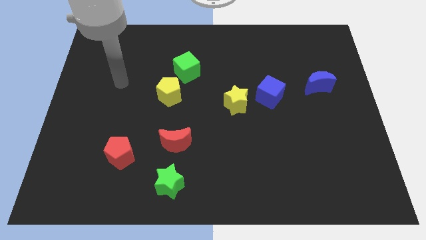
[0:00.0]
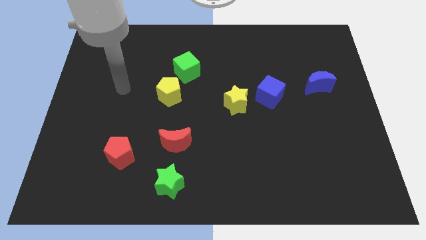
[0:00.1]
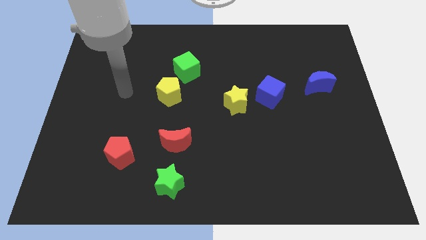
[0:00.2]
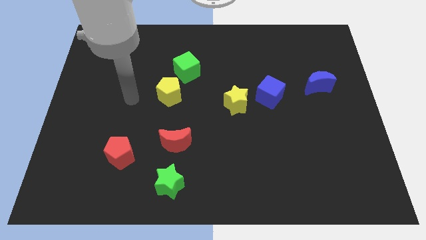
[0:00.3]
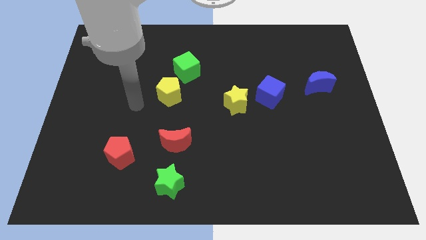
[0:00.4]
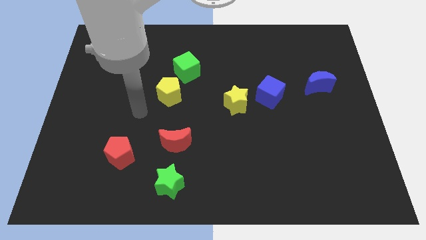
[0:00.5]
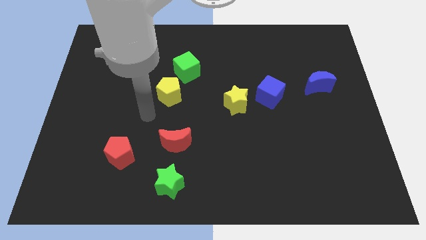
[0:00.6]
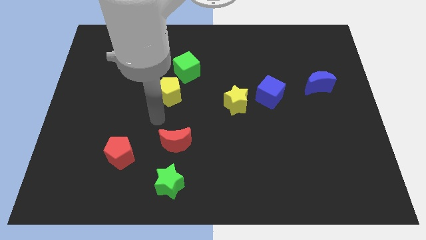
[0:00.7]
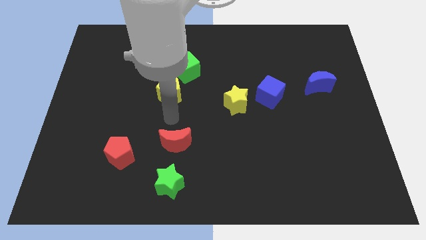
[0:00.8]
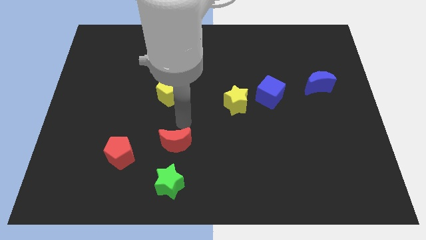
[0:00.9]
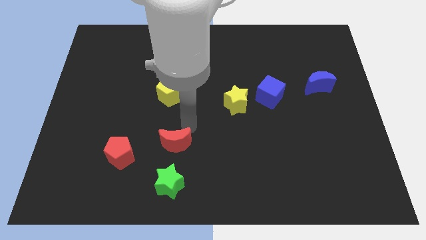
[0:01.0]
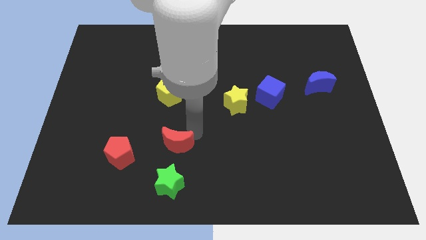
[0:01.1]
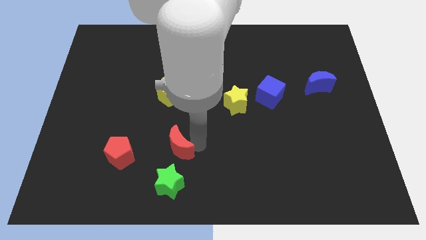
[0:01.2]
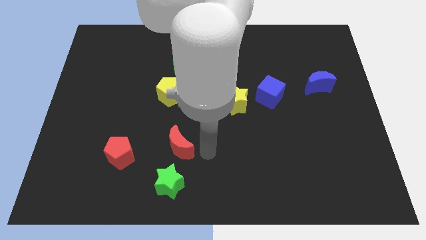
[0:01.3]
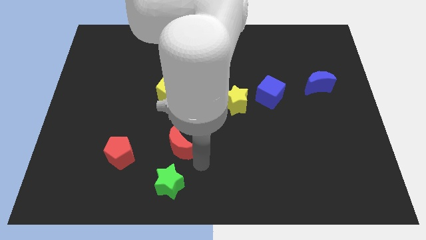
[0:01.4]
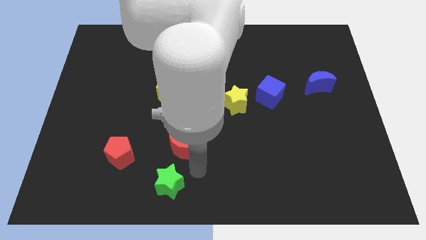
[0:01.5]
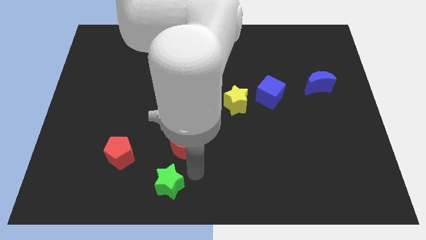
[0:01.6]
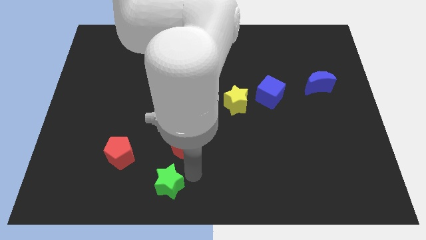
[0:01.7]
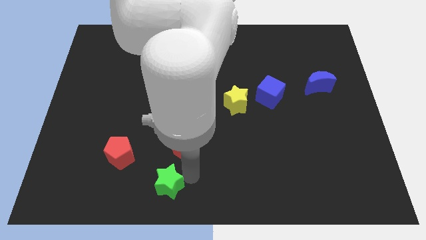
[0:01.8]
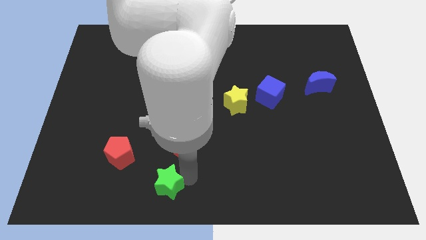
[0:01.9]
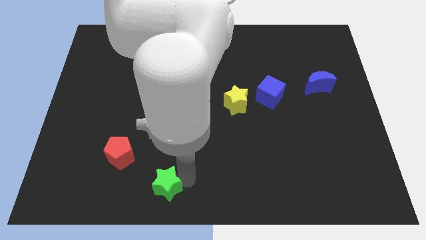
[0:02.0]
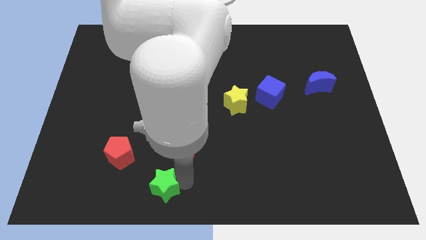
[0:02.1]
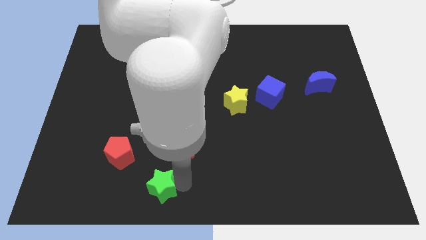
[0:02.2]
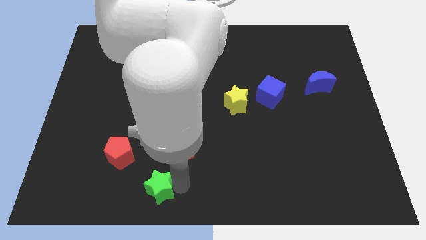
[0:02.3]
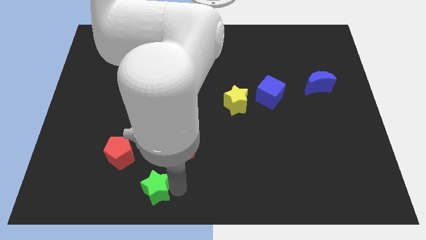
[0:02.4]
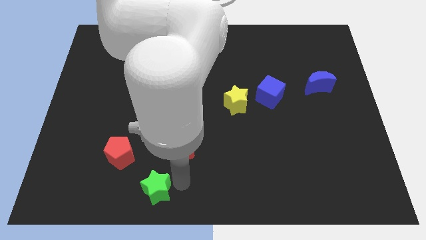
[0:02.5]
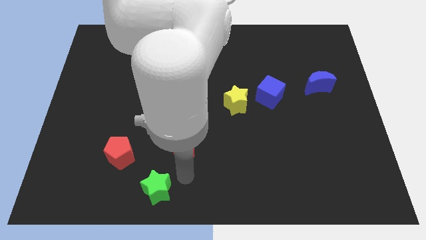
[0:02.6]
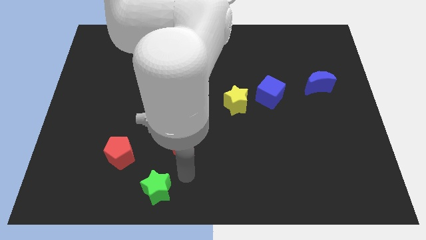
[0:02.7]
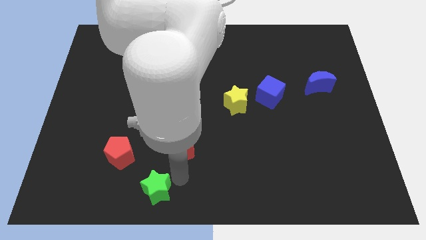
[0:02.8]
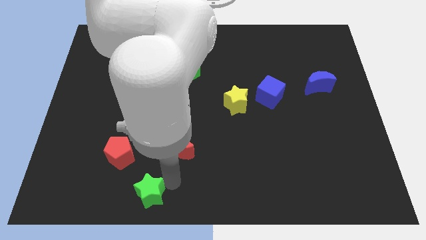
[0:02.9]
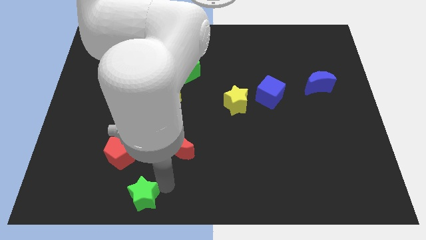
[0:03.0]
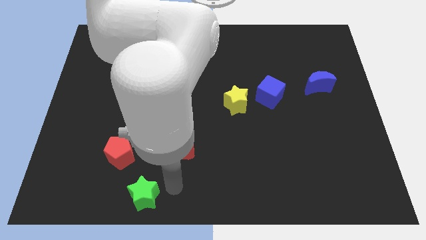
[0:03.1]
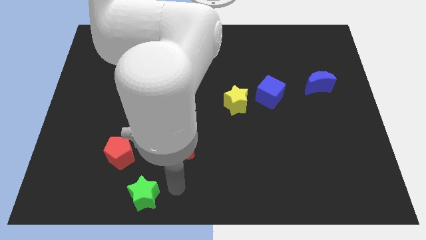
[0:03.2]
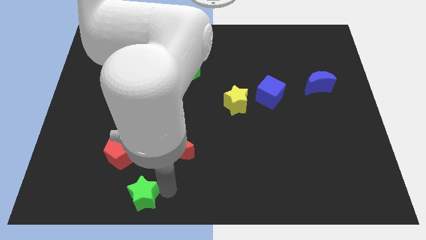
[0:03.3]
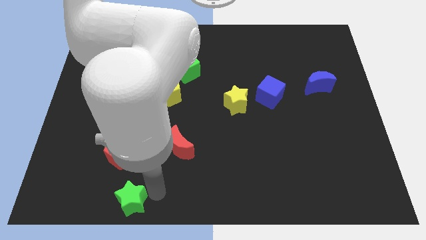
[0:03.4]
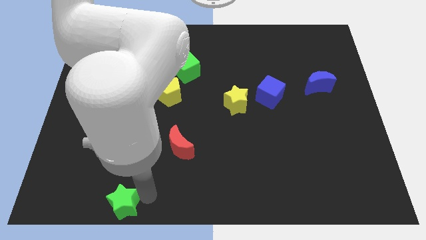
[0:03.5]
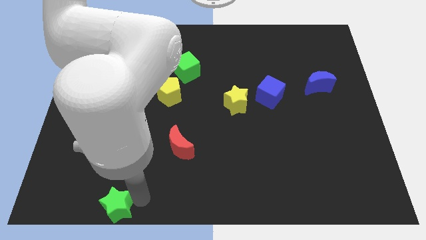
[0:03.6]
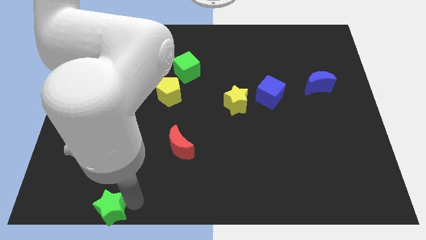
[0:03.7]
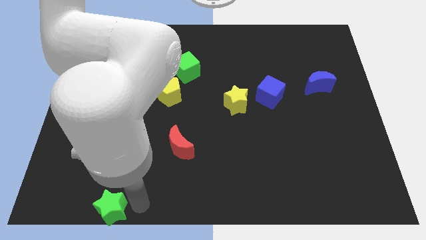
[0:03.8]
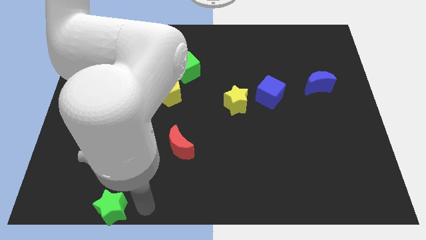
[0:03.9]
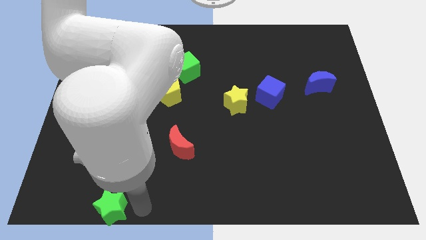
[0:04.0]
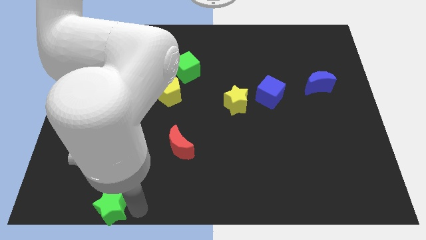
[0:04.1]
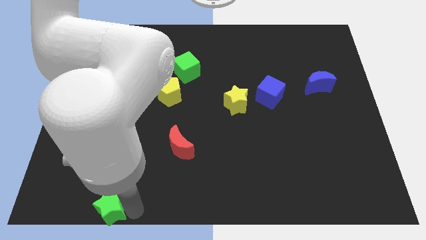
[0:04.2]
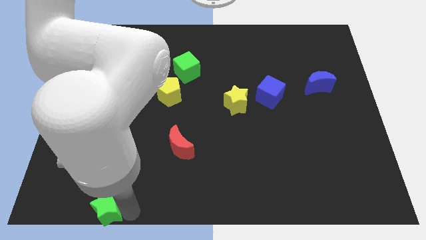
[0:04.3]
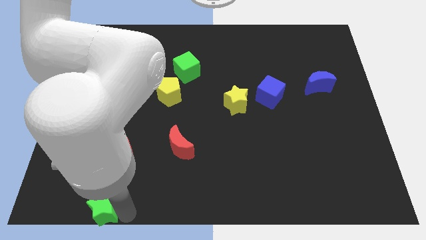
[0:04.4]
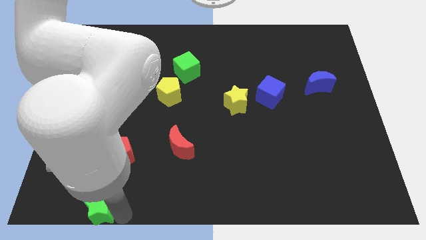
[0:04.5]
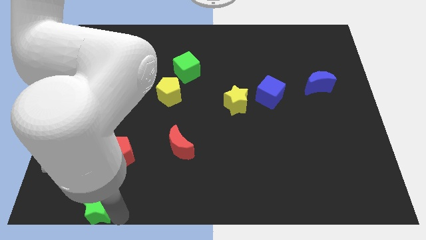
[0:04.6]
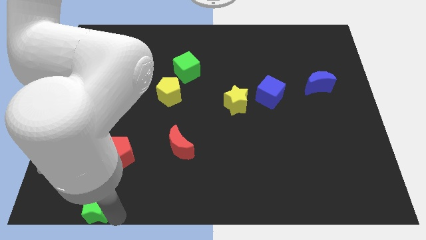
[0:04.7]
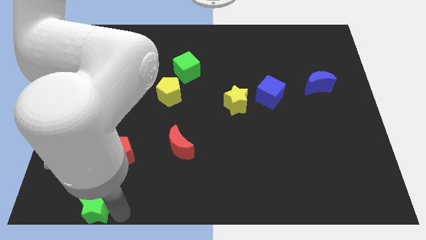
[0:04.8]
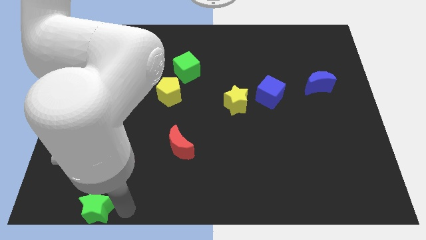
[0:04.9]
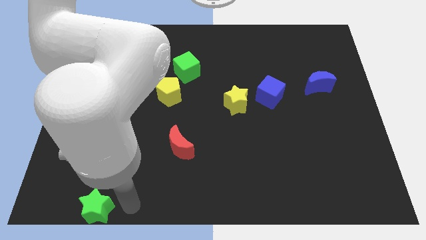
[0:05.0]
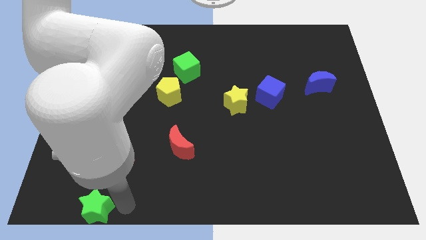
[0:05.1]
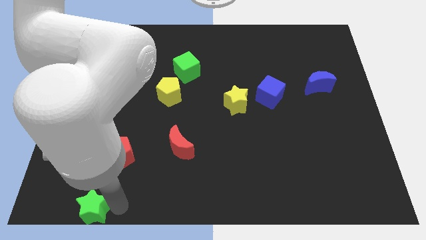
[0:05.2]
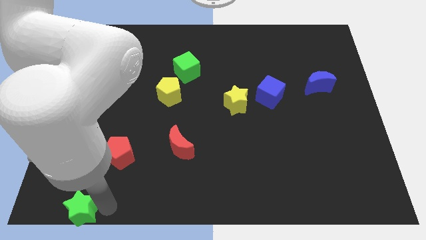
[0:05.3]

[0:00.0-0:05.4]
push the green star to the bottom left corner

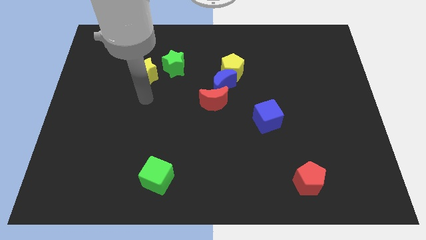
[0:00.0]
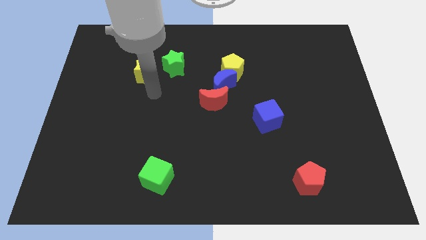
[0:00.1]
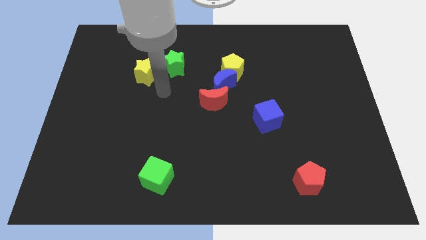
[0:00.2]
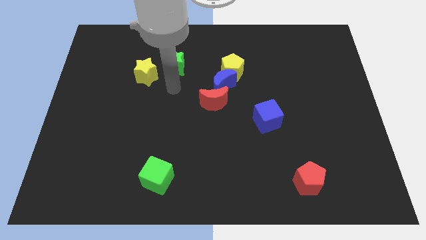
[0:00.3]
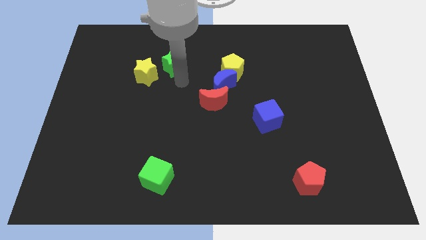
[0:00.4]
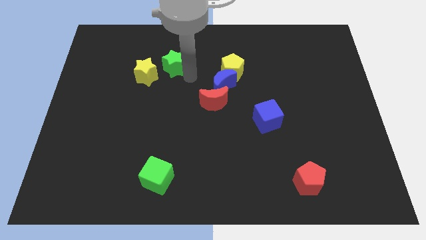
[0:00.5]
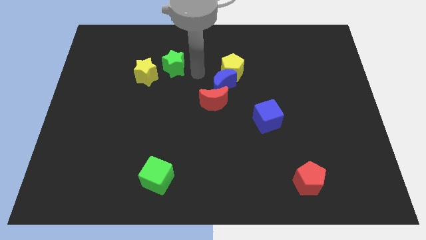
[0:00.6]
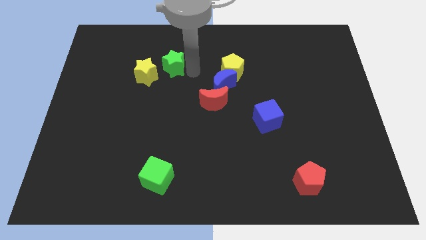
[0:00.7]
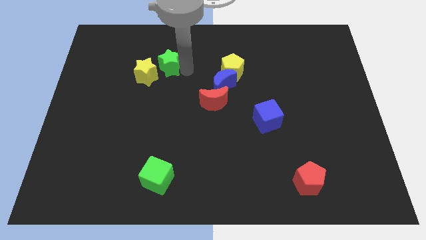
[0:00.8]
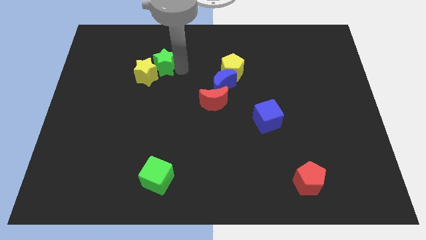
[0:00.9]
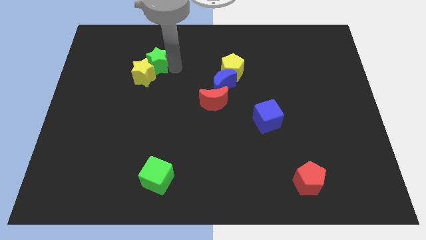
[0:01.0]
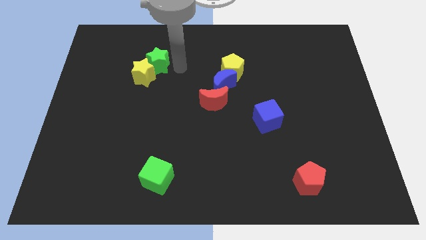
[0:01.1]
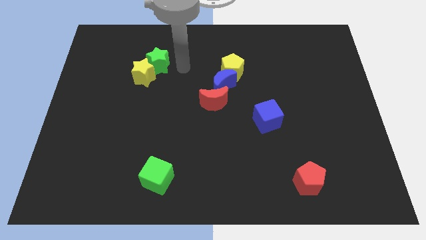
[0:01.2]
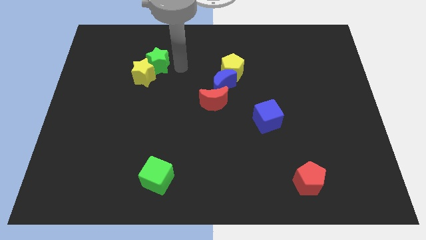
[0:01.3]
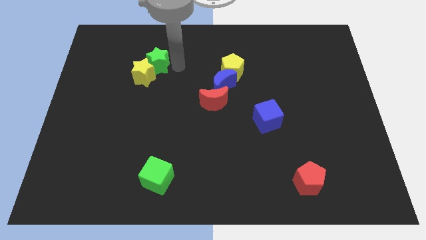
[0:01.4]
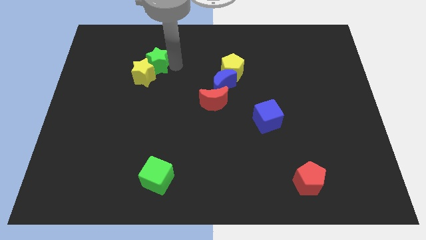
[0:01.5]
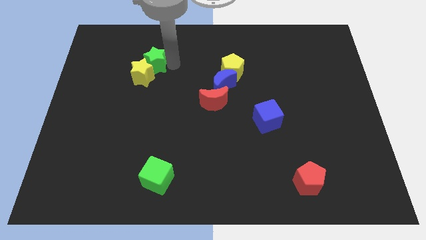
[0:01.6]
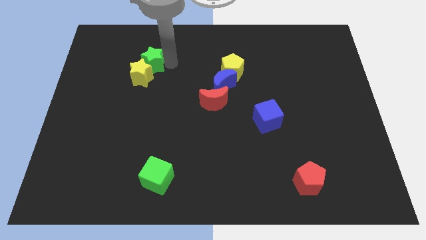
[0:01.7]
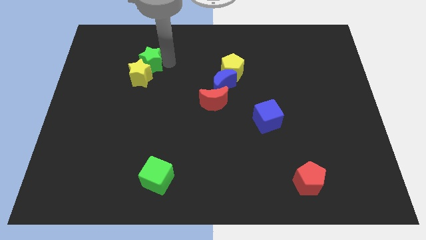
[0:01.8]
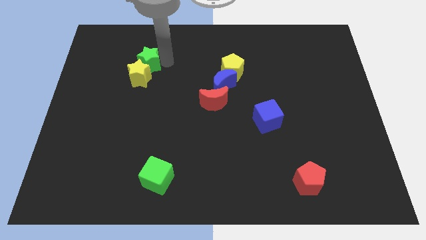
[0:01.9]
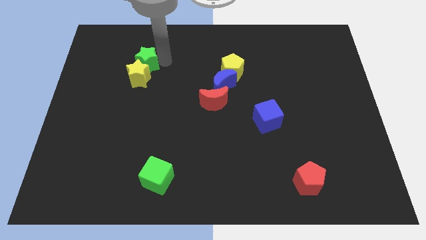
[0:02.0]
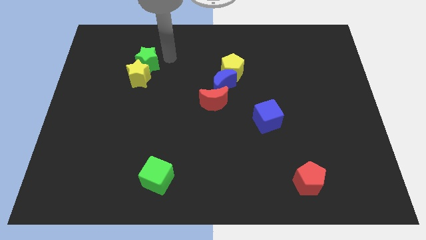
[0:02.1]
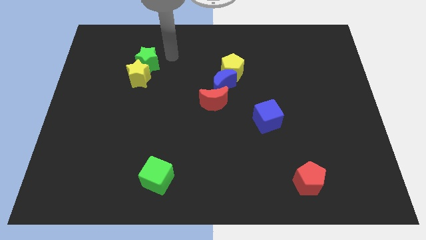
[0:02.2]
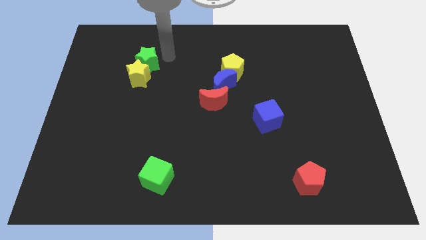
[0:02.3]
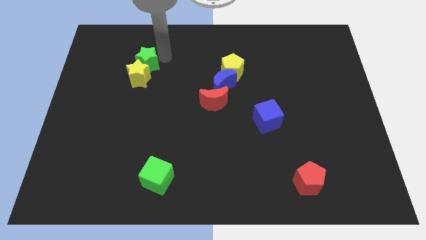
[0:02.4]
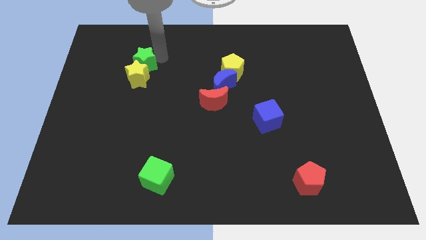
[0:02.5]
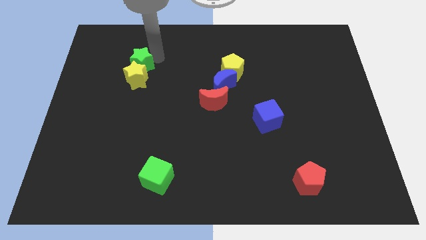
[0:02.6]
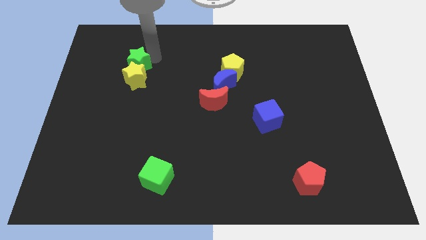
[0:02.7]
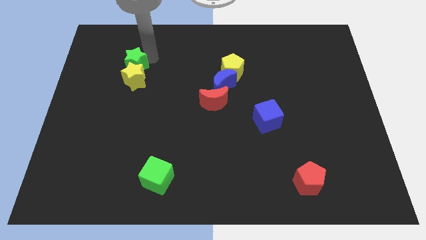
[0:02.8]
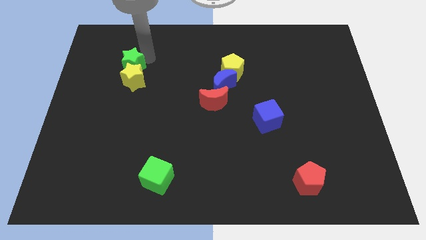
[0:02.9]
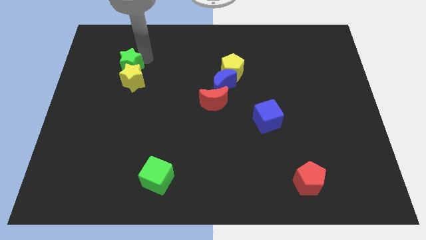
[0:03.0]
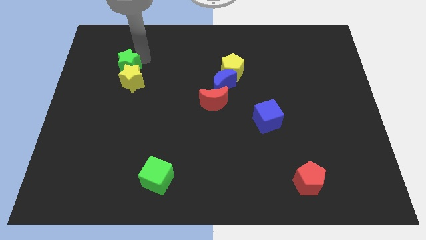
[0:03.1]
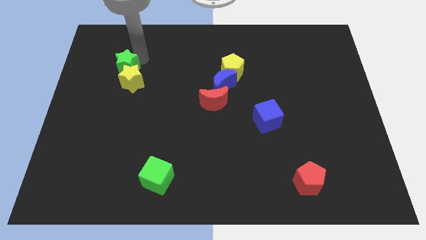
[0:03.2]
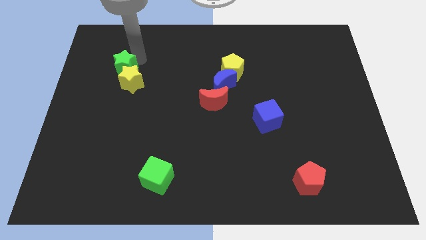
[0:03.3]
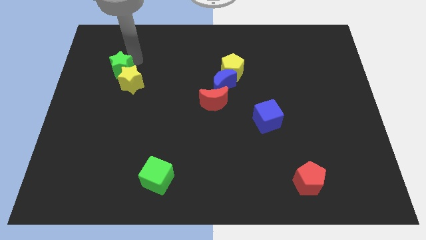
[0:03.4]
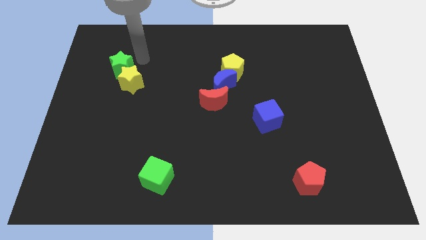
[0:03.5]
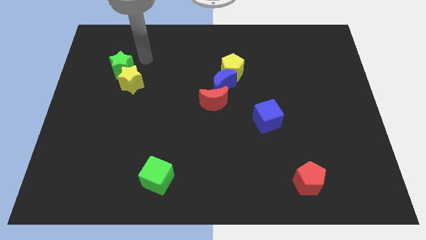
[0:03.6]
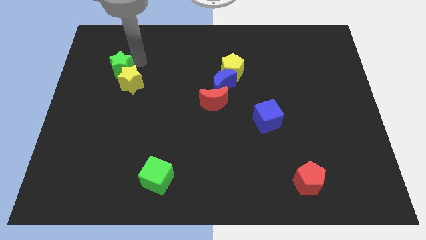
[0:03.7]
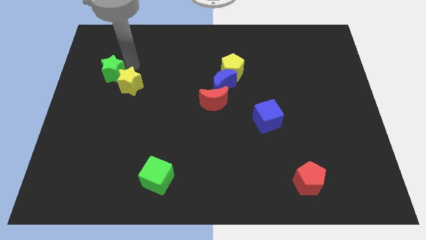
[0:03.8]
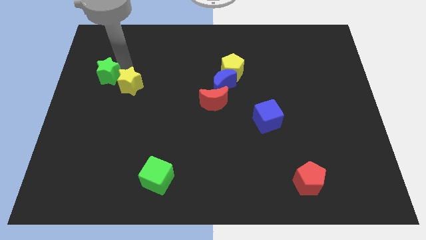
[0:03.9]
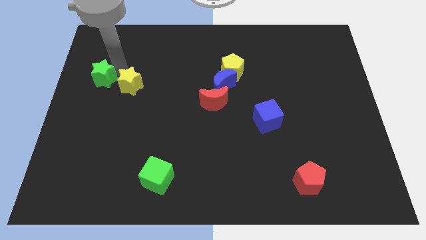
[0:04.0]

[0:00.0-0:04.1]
put the green star to the left side
